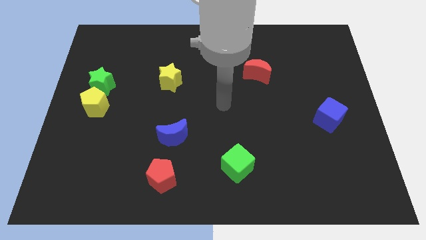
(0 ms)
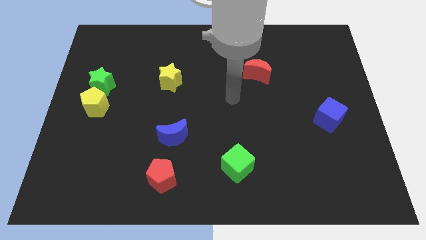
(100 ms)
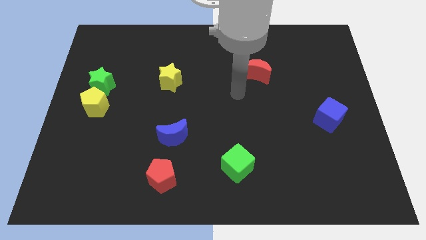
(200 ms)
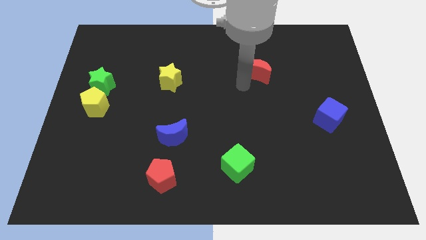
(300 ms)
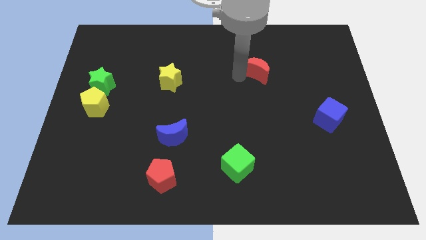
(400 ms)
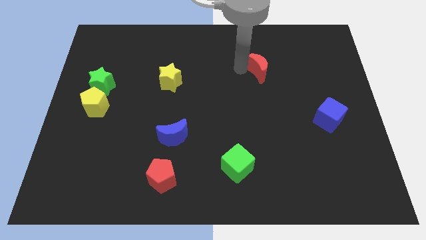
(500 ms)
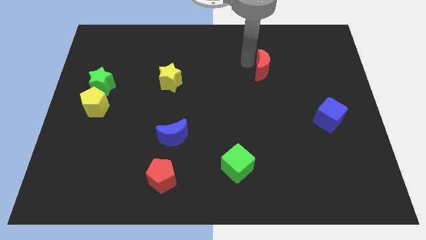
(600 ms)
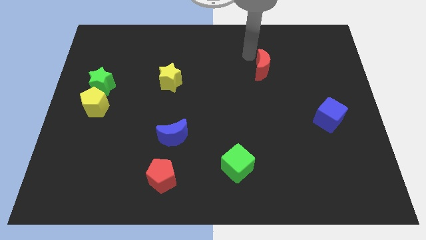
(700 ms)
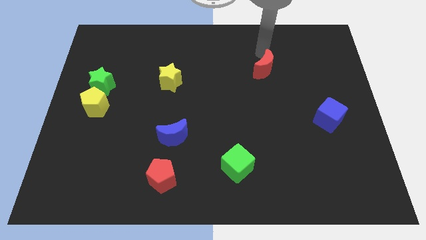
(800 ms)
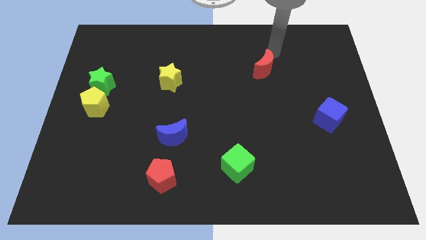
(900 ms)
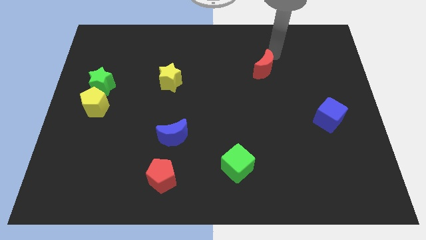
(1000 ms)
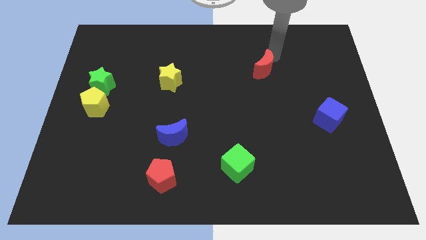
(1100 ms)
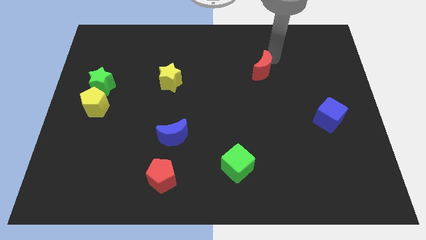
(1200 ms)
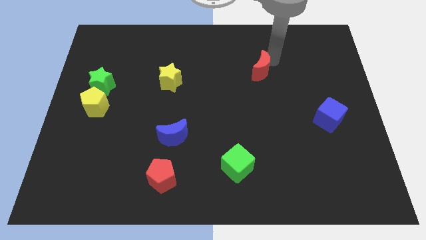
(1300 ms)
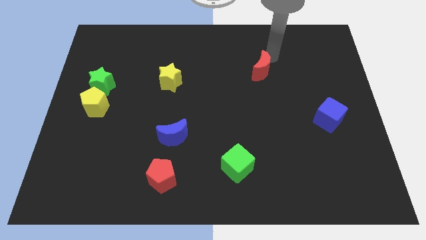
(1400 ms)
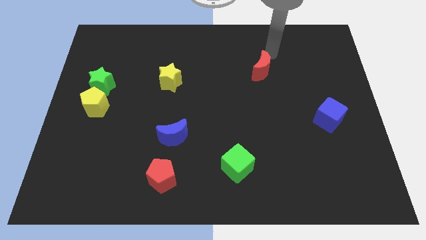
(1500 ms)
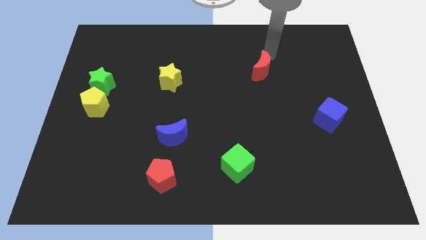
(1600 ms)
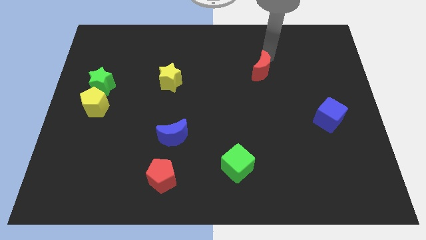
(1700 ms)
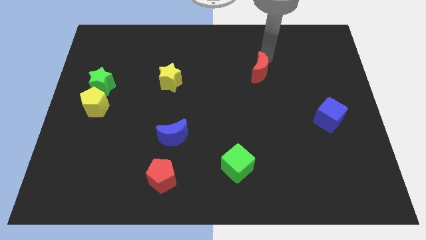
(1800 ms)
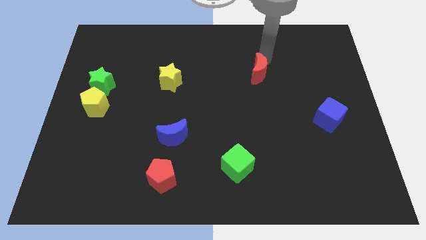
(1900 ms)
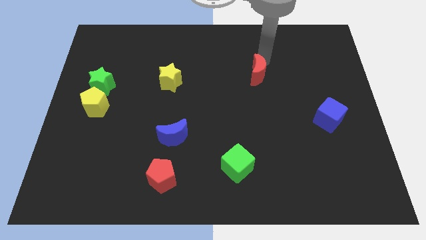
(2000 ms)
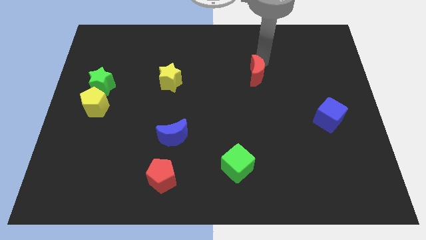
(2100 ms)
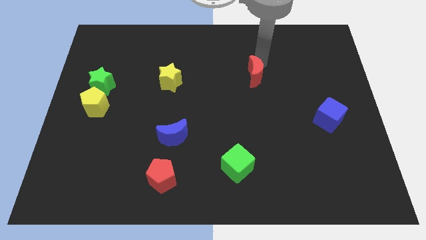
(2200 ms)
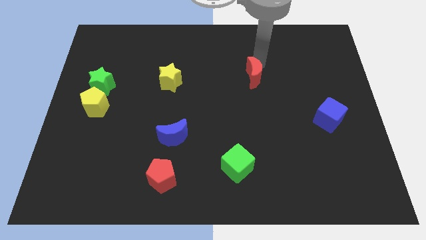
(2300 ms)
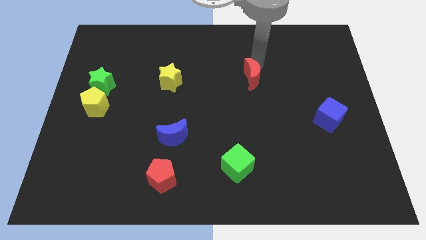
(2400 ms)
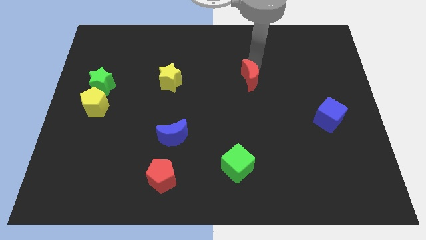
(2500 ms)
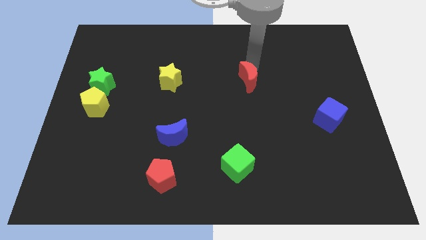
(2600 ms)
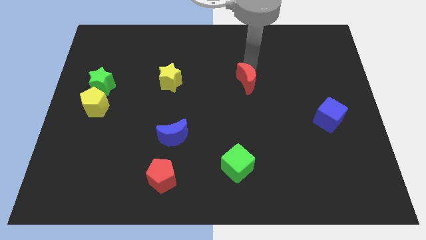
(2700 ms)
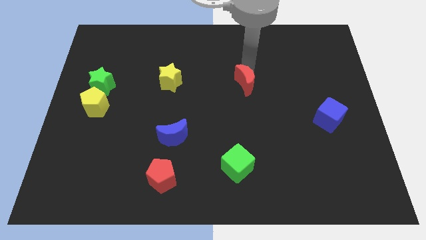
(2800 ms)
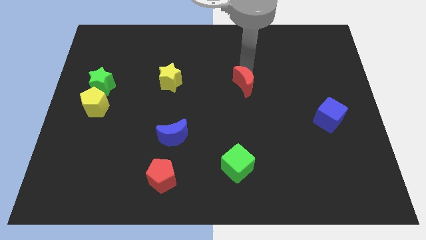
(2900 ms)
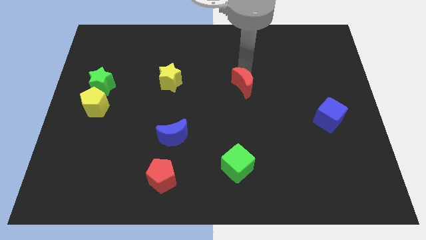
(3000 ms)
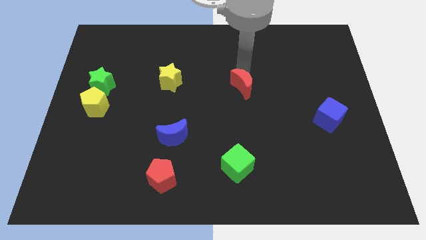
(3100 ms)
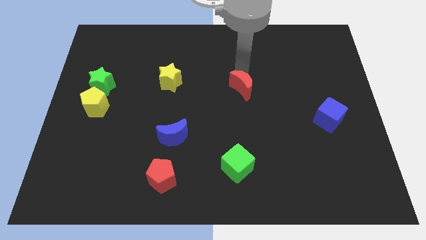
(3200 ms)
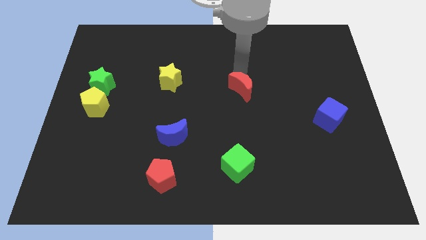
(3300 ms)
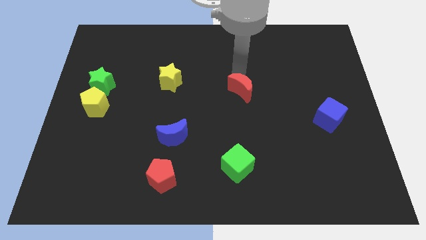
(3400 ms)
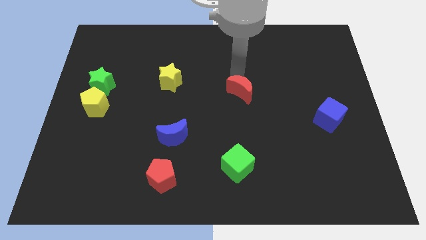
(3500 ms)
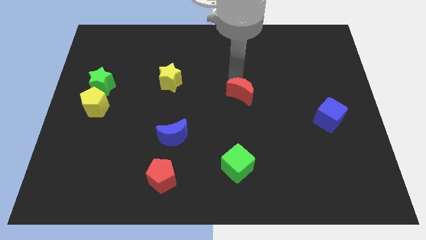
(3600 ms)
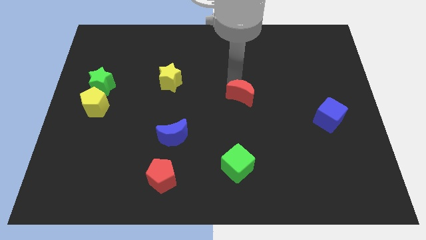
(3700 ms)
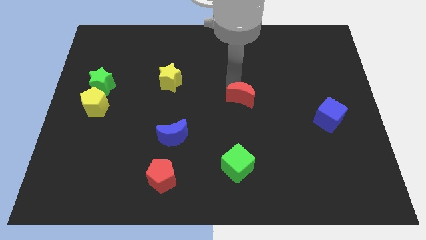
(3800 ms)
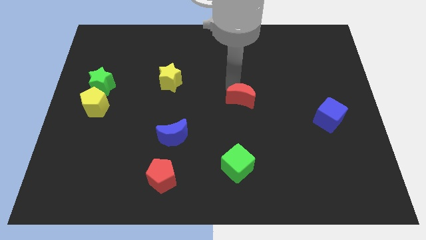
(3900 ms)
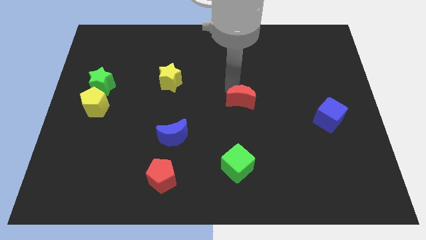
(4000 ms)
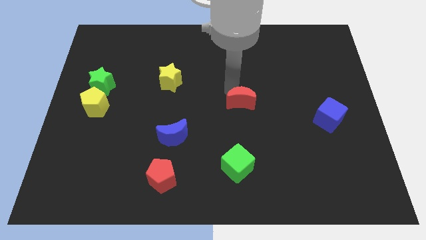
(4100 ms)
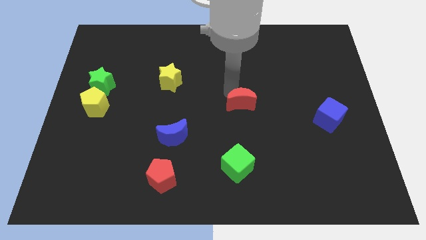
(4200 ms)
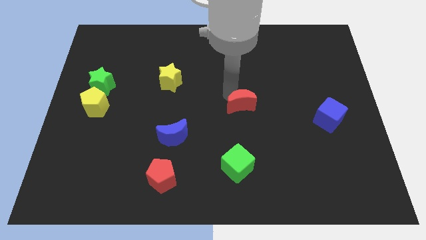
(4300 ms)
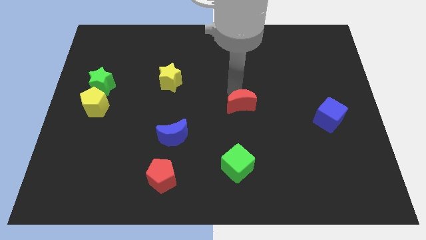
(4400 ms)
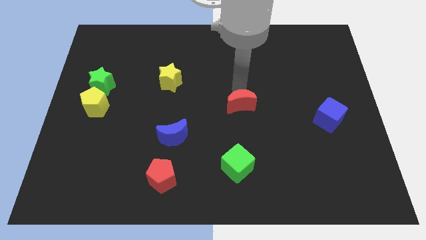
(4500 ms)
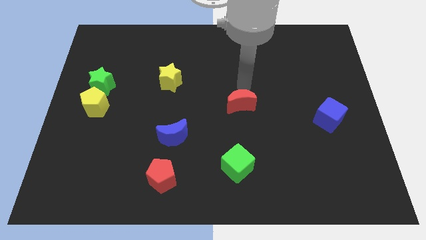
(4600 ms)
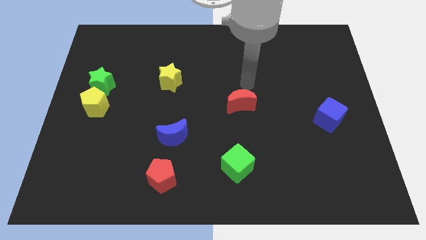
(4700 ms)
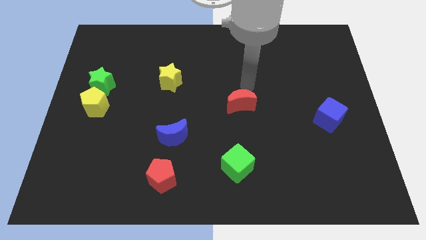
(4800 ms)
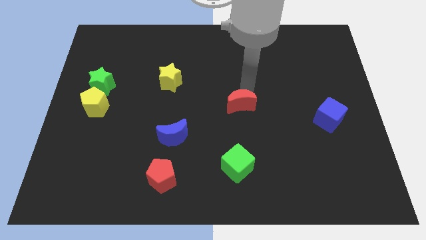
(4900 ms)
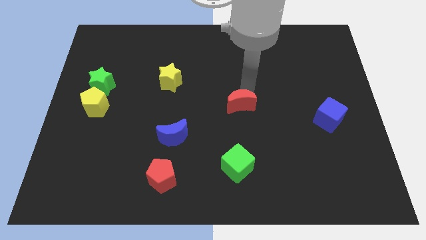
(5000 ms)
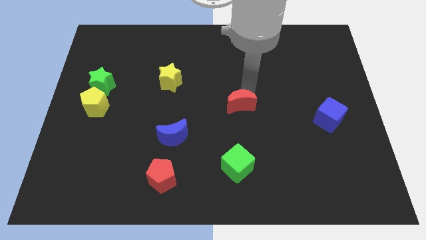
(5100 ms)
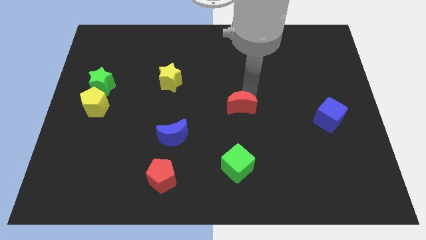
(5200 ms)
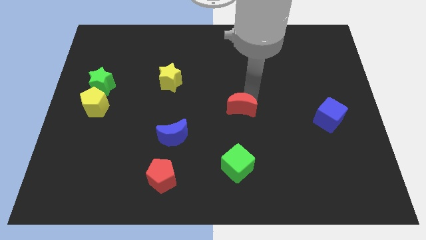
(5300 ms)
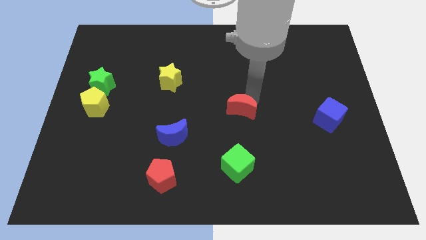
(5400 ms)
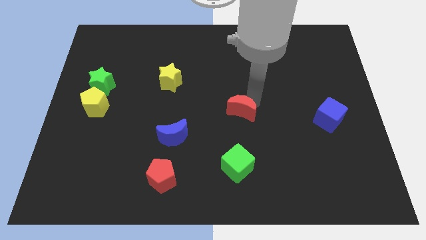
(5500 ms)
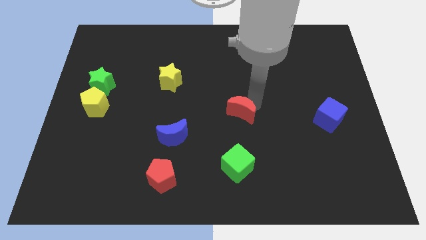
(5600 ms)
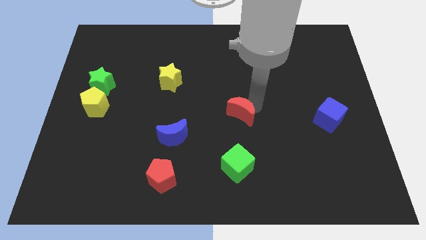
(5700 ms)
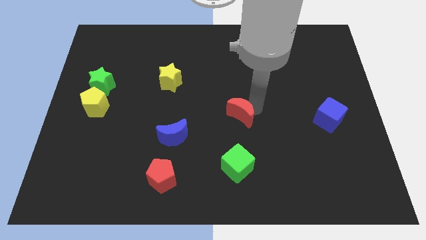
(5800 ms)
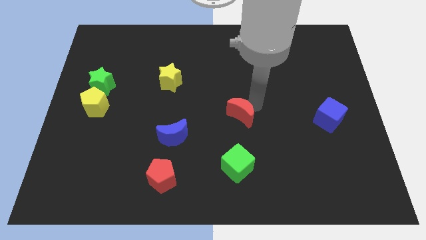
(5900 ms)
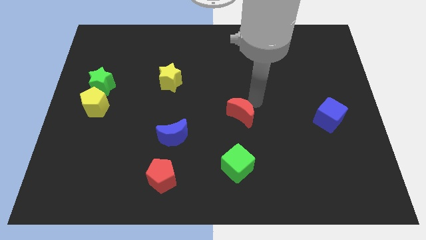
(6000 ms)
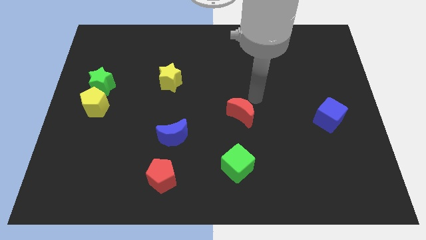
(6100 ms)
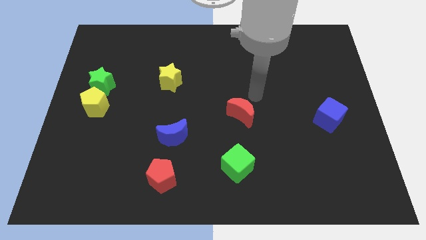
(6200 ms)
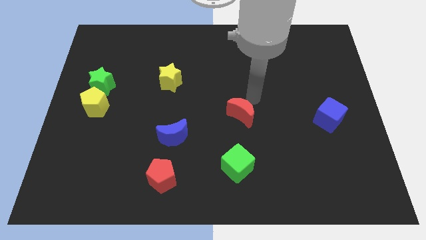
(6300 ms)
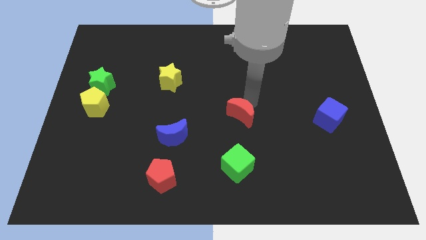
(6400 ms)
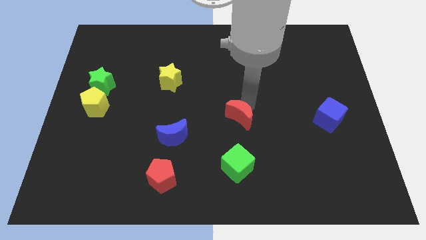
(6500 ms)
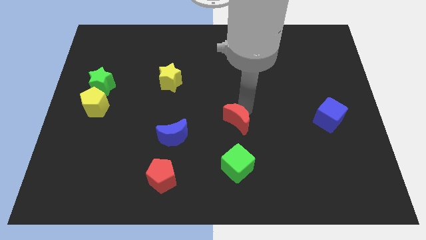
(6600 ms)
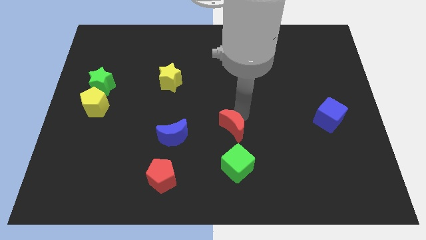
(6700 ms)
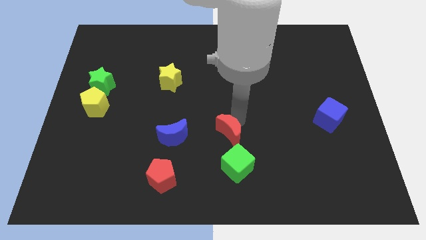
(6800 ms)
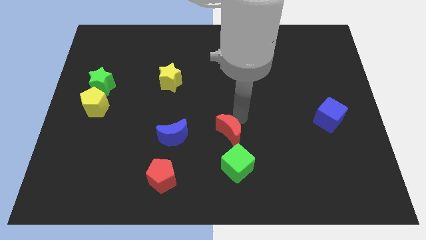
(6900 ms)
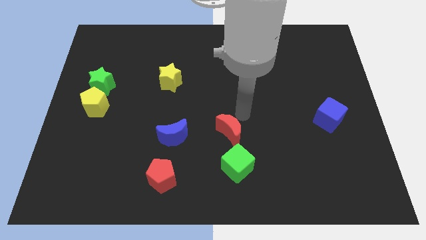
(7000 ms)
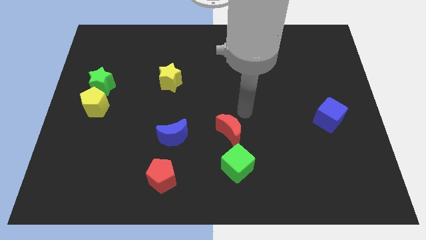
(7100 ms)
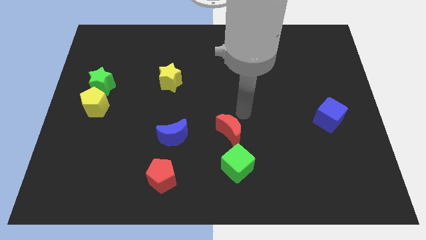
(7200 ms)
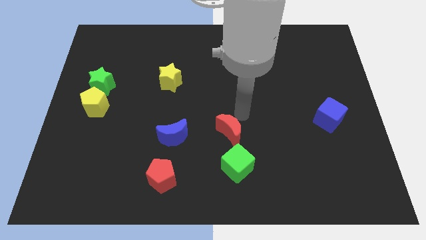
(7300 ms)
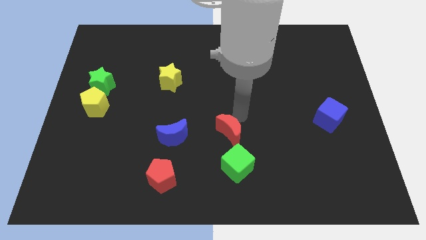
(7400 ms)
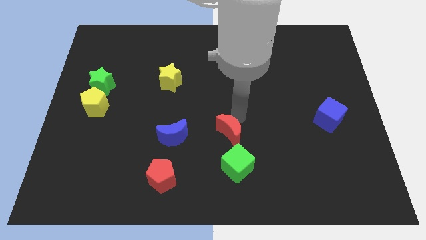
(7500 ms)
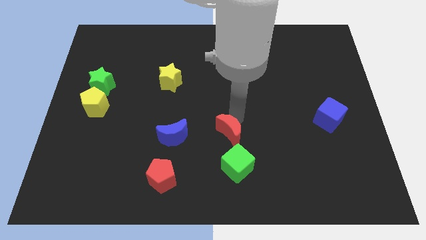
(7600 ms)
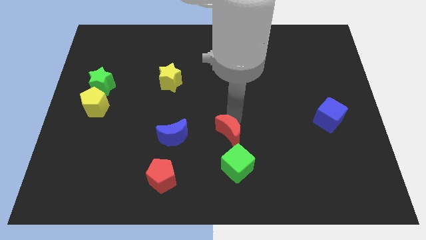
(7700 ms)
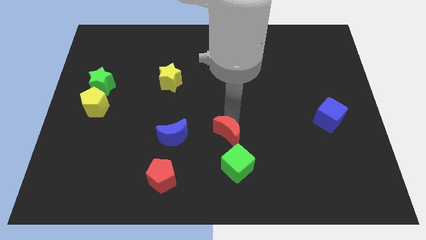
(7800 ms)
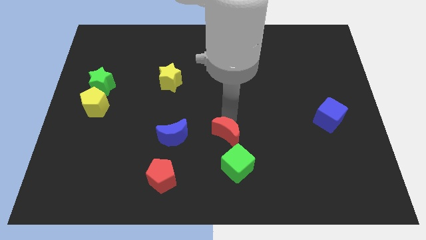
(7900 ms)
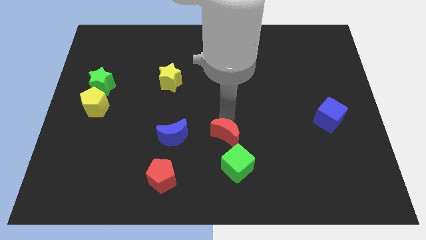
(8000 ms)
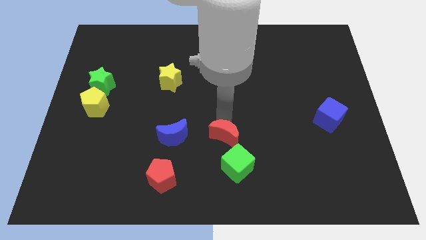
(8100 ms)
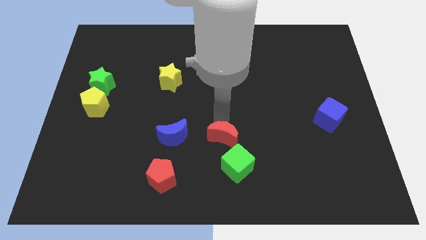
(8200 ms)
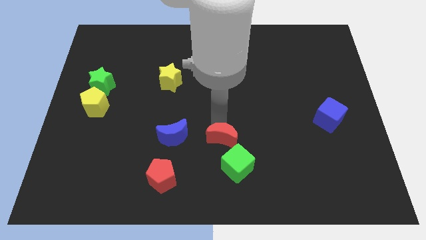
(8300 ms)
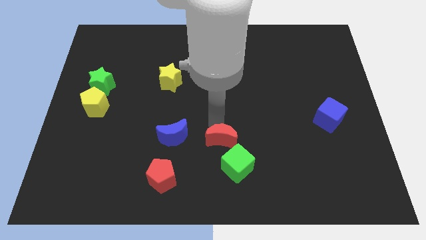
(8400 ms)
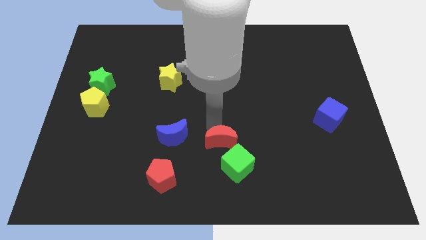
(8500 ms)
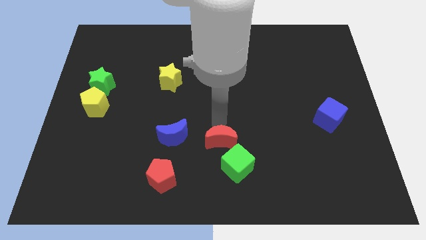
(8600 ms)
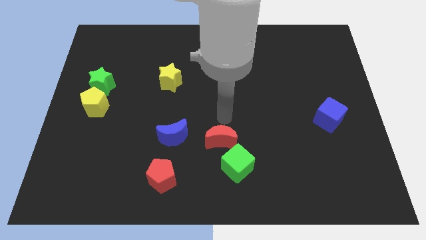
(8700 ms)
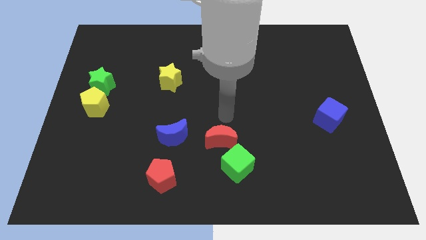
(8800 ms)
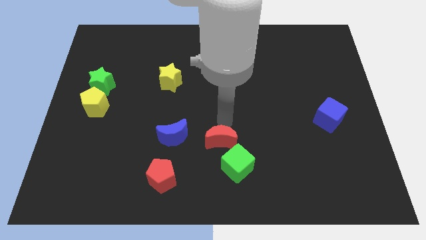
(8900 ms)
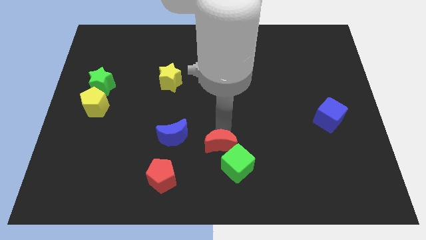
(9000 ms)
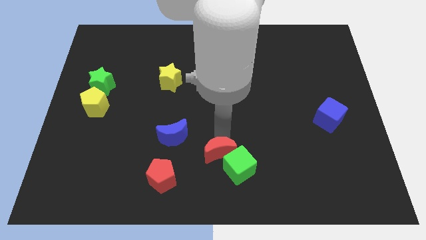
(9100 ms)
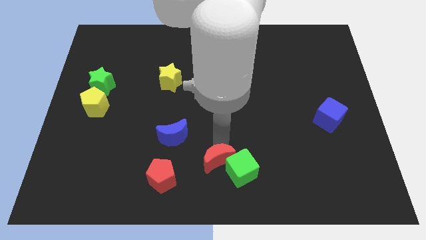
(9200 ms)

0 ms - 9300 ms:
slide the red moon right of the red pentagon
